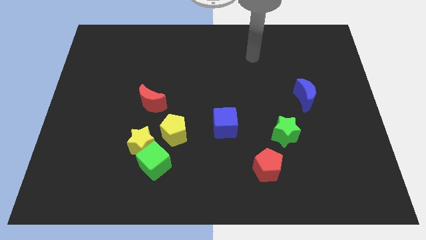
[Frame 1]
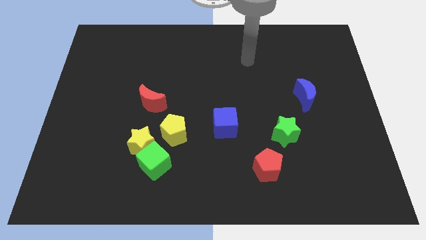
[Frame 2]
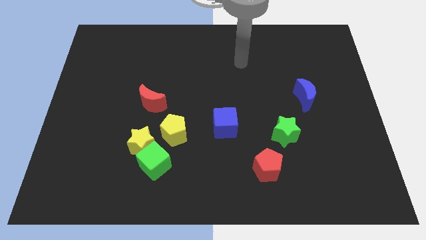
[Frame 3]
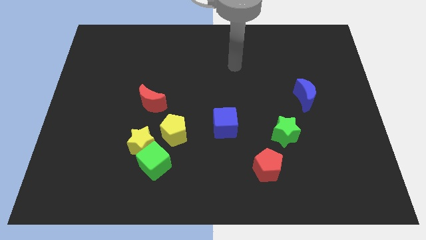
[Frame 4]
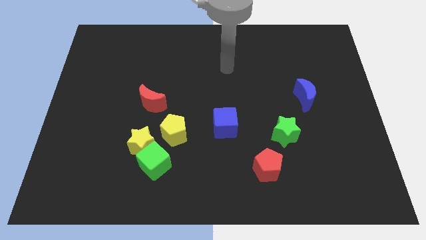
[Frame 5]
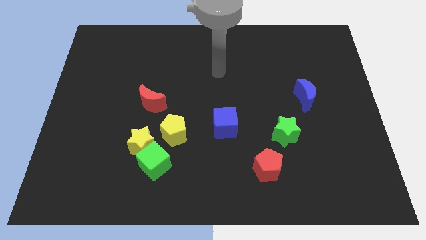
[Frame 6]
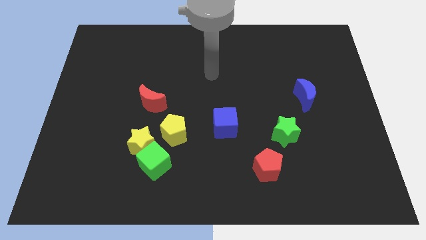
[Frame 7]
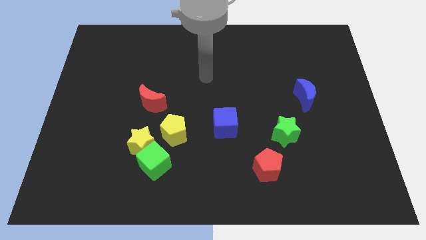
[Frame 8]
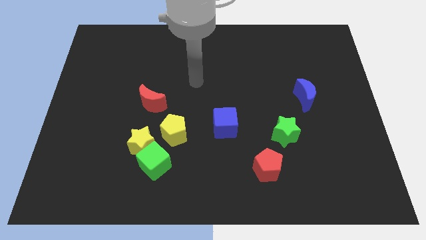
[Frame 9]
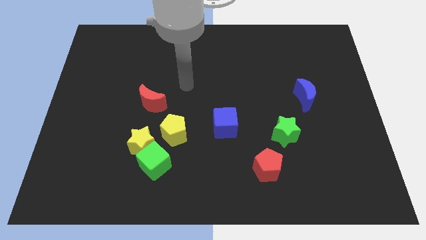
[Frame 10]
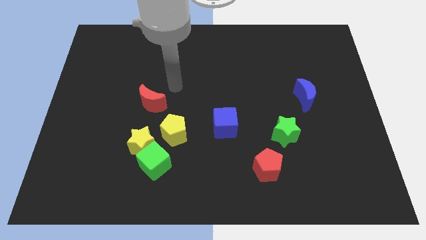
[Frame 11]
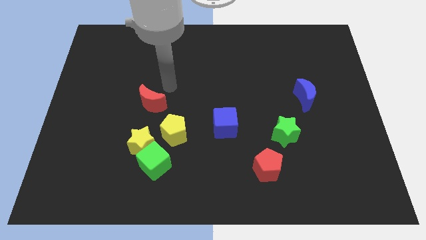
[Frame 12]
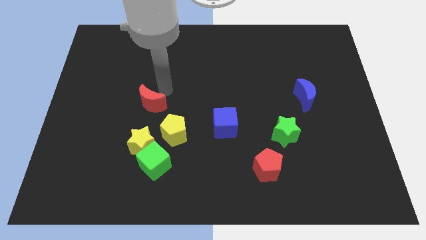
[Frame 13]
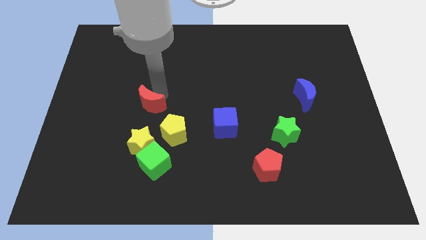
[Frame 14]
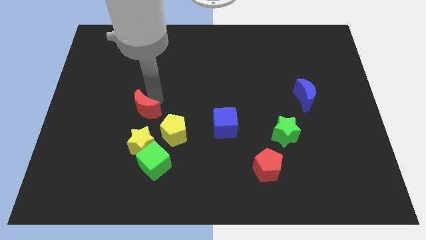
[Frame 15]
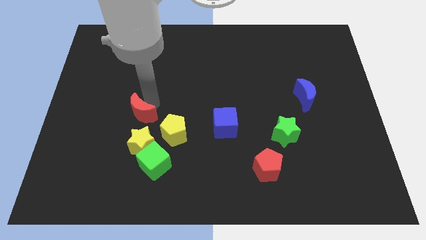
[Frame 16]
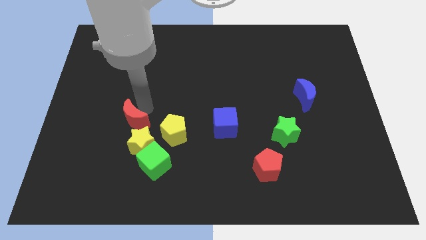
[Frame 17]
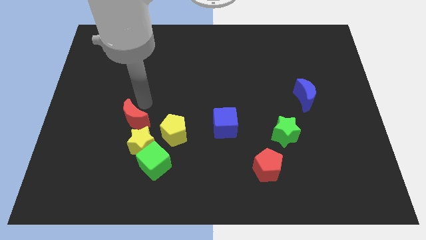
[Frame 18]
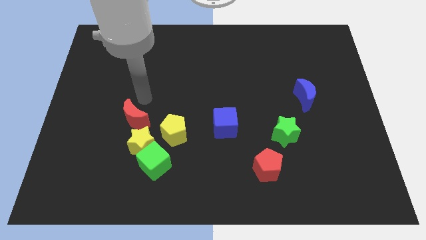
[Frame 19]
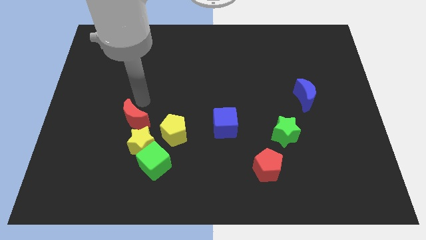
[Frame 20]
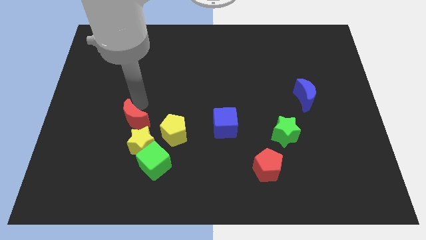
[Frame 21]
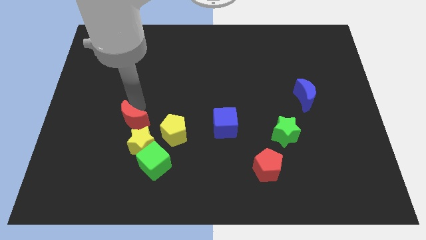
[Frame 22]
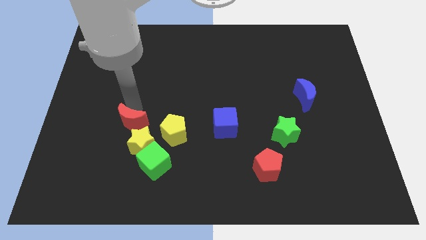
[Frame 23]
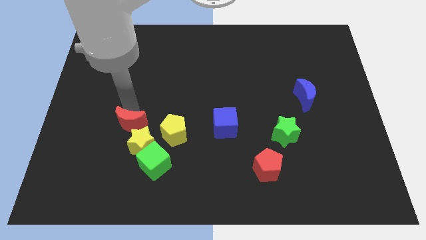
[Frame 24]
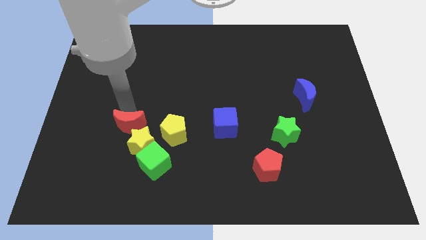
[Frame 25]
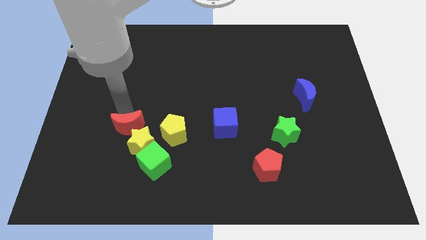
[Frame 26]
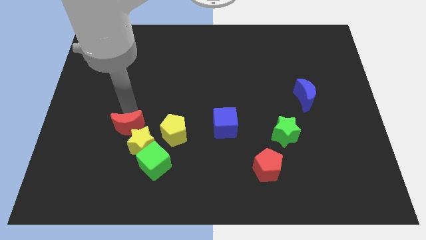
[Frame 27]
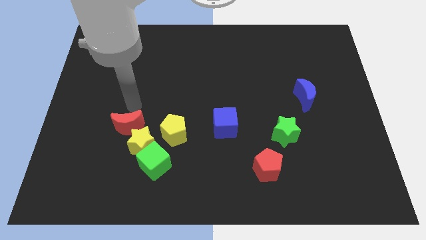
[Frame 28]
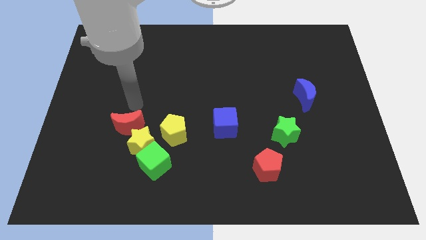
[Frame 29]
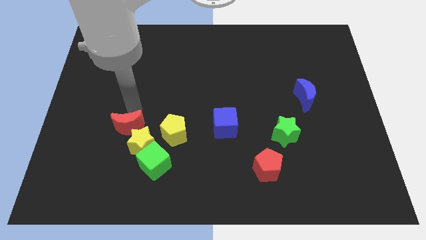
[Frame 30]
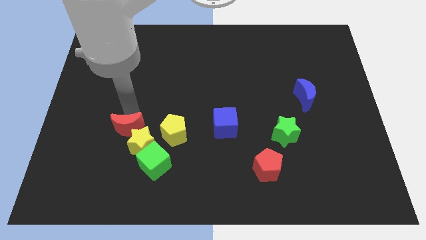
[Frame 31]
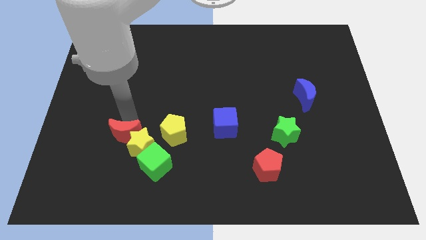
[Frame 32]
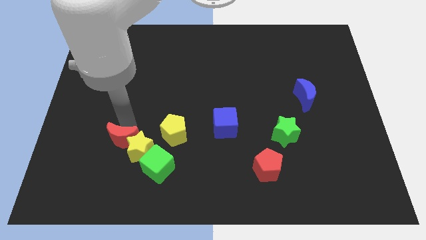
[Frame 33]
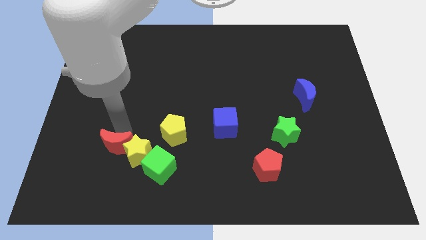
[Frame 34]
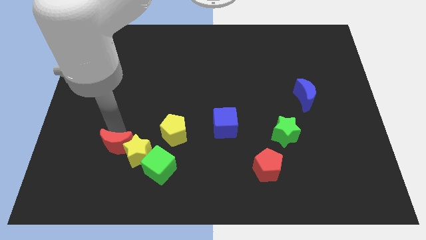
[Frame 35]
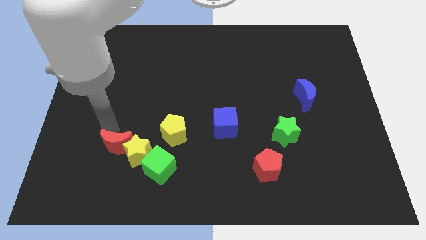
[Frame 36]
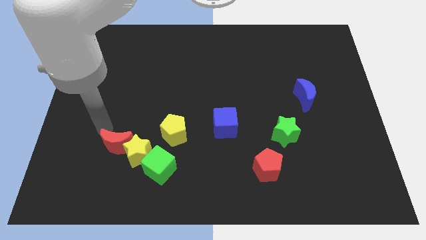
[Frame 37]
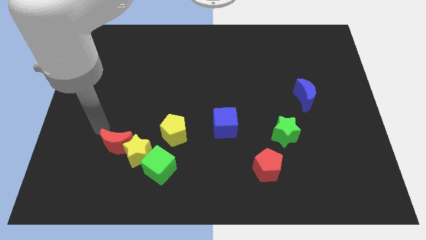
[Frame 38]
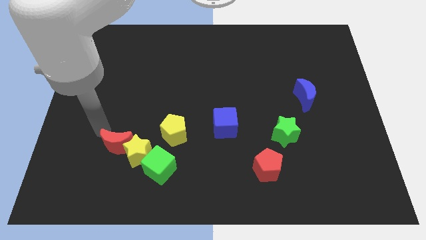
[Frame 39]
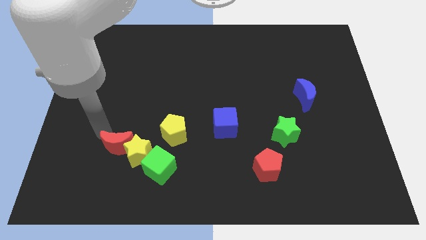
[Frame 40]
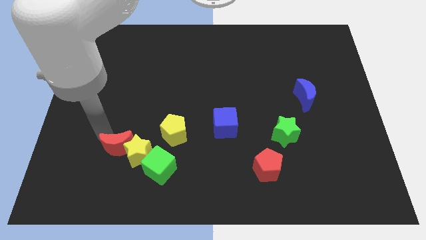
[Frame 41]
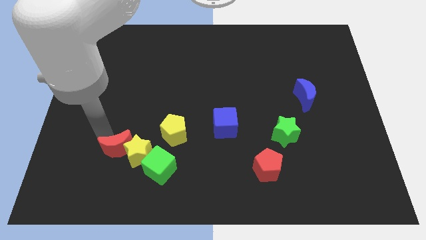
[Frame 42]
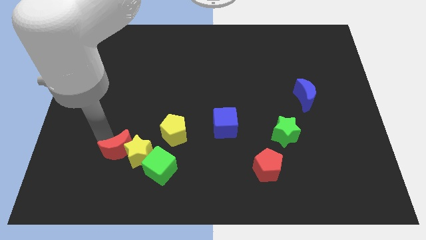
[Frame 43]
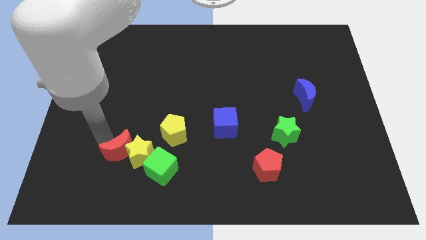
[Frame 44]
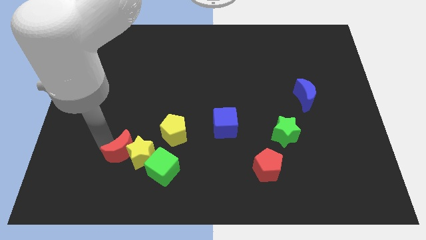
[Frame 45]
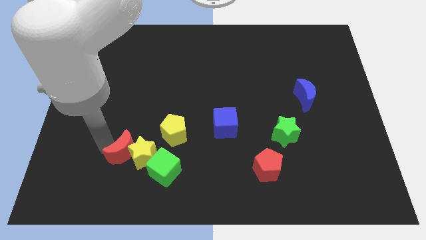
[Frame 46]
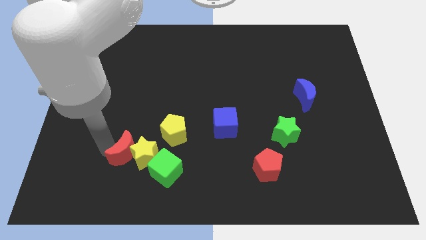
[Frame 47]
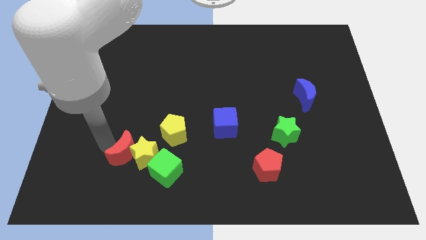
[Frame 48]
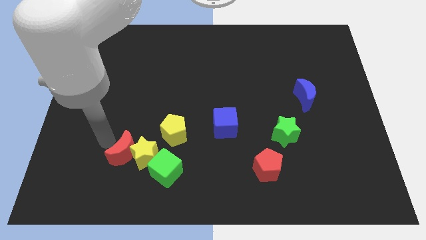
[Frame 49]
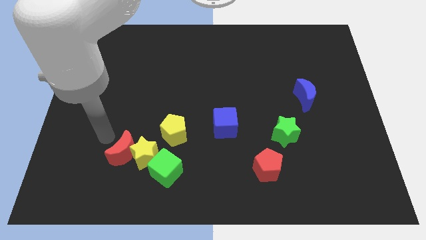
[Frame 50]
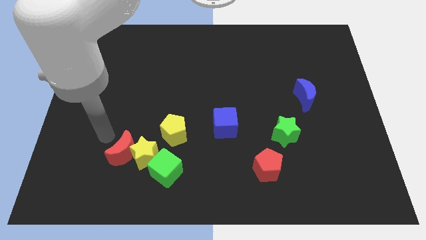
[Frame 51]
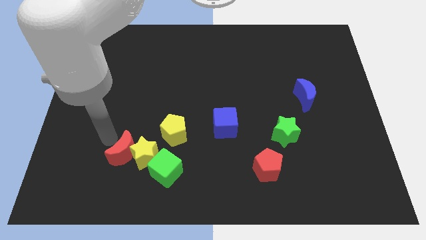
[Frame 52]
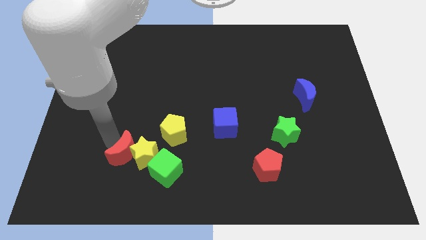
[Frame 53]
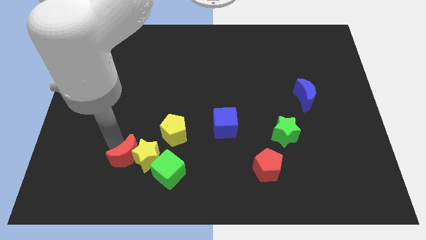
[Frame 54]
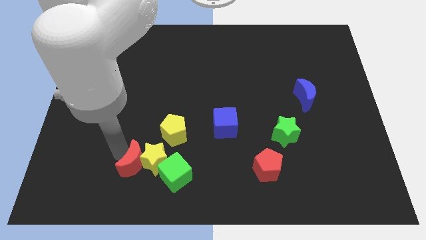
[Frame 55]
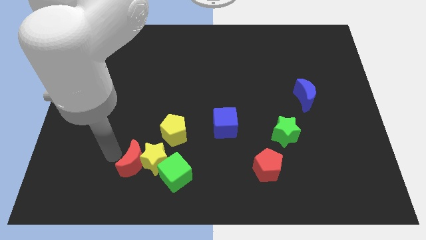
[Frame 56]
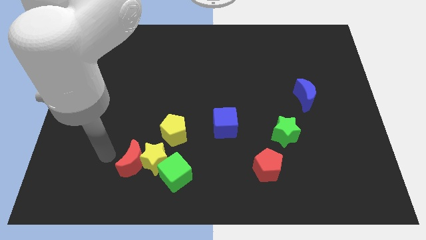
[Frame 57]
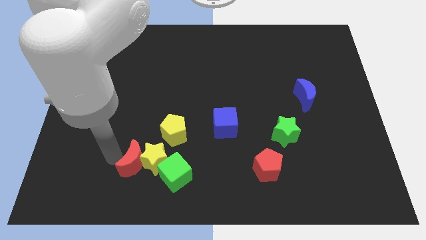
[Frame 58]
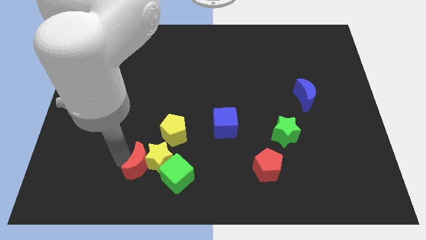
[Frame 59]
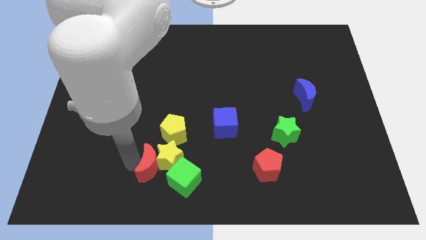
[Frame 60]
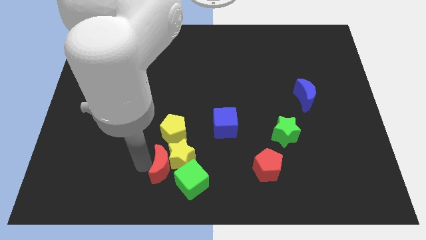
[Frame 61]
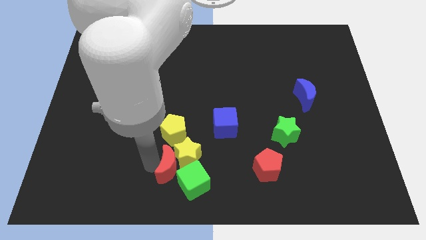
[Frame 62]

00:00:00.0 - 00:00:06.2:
move the red moon towards the green cube

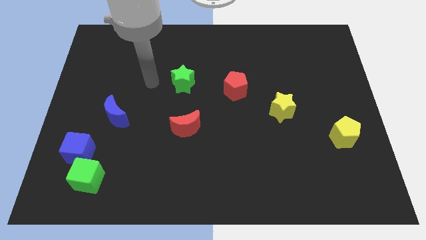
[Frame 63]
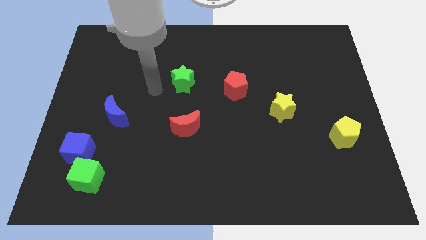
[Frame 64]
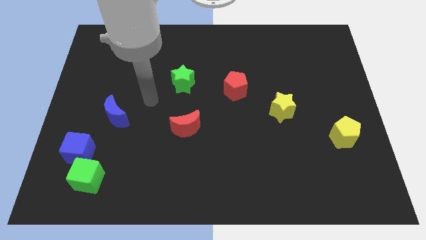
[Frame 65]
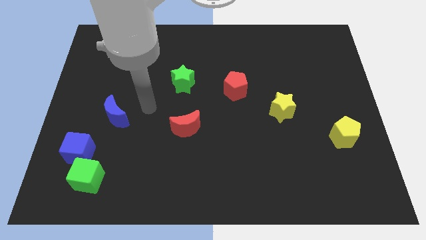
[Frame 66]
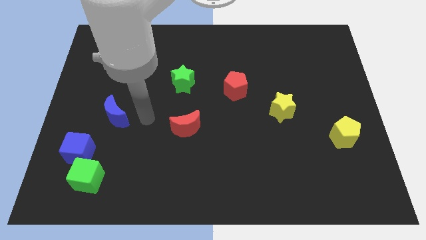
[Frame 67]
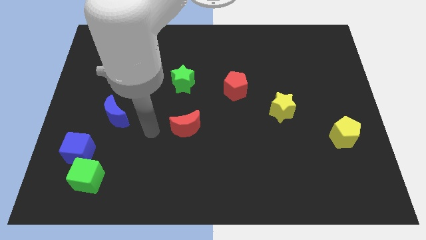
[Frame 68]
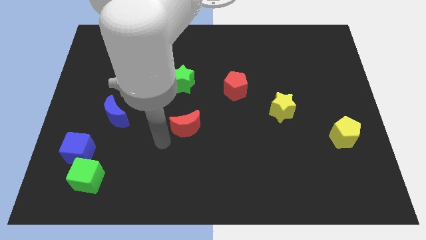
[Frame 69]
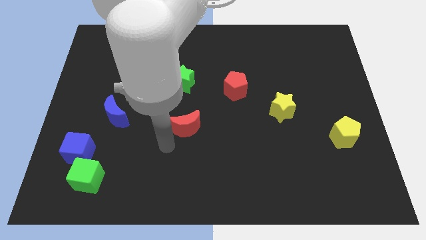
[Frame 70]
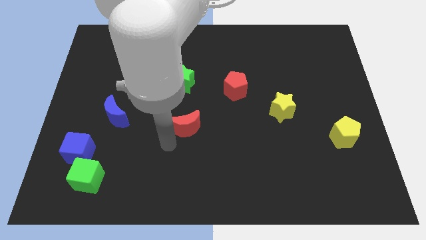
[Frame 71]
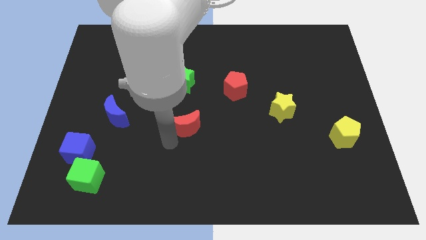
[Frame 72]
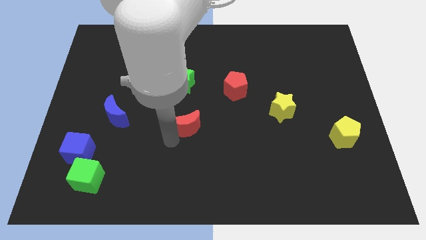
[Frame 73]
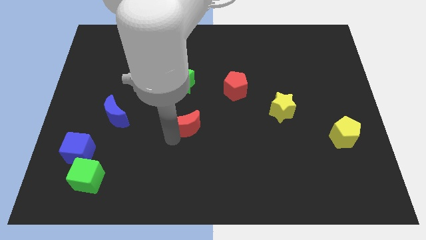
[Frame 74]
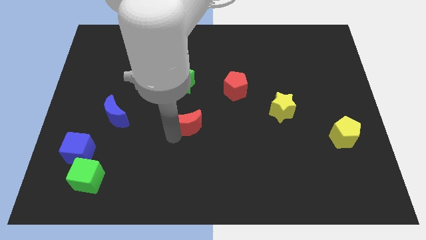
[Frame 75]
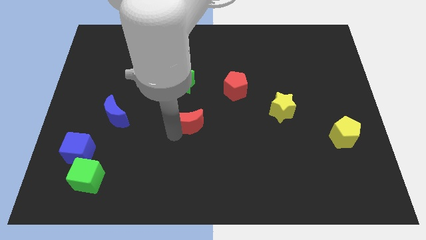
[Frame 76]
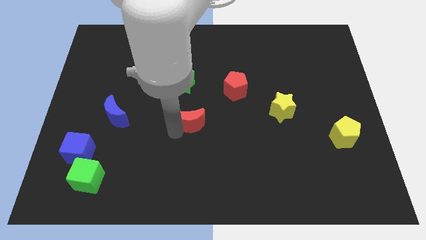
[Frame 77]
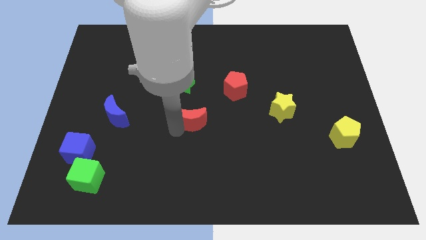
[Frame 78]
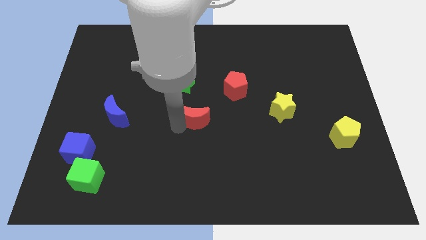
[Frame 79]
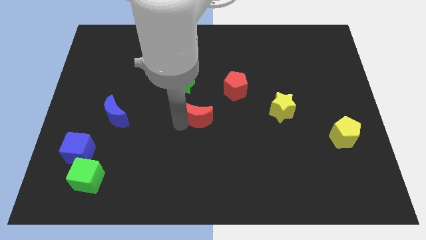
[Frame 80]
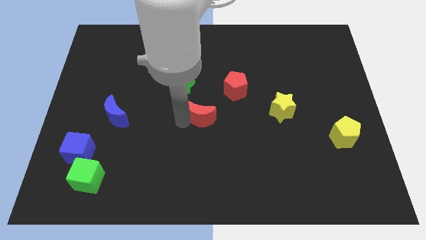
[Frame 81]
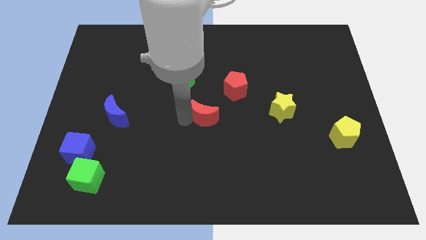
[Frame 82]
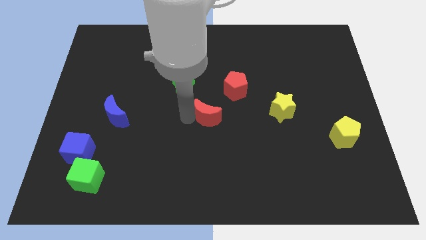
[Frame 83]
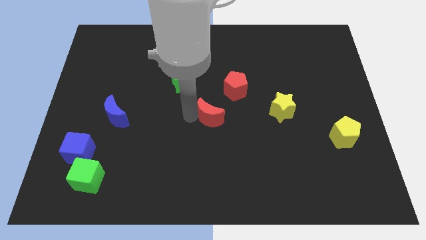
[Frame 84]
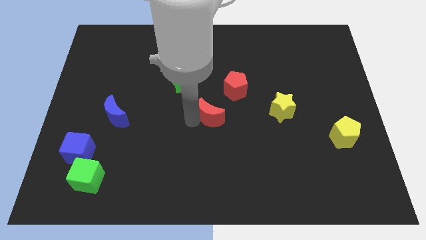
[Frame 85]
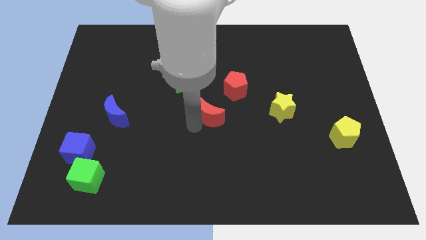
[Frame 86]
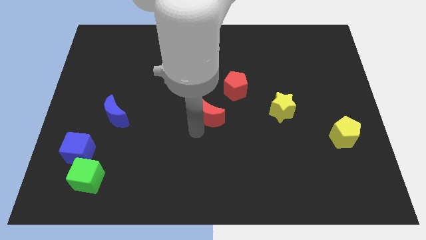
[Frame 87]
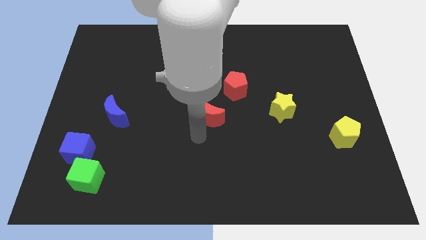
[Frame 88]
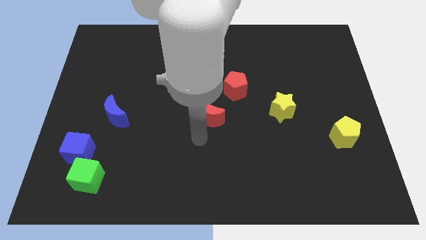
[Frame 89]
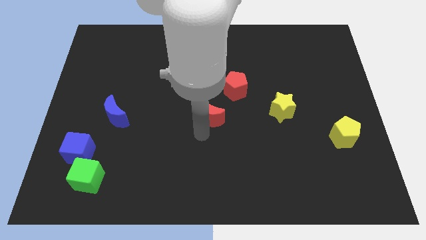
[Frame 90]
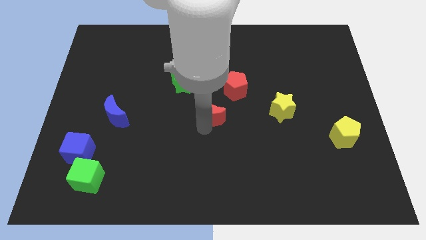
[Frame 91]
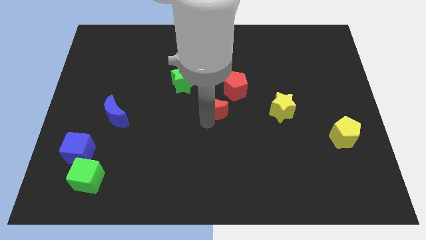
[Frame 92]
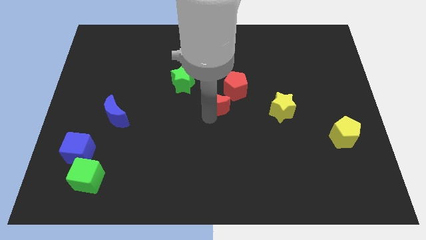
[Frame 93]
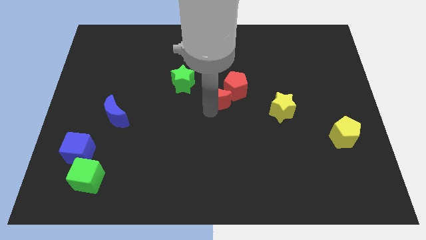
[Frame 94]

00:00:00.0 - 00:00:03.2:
put the red moon to the red pentagon
